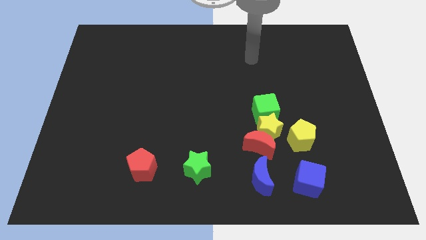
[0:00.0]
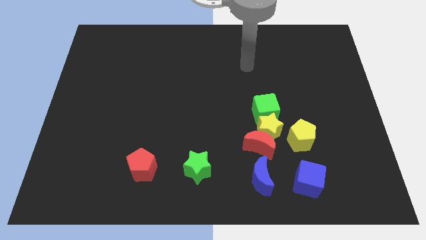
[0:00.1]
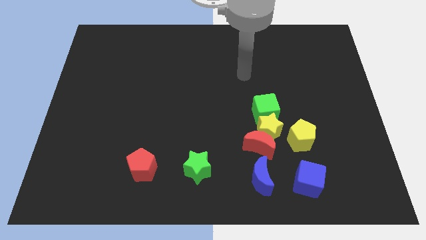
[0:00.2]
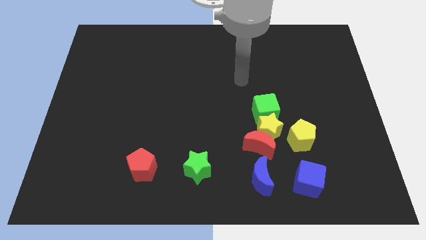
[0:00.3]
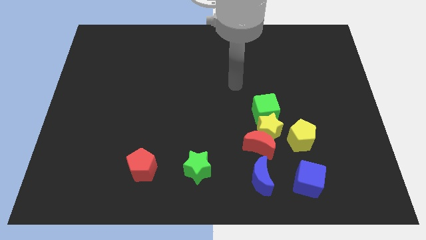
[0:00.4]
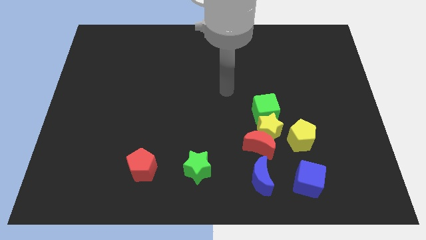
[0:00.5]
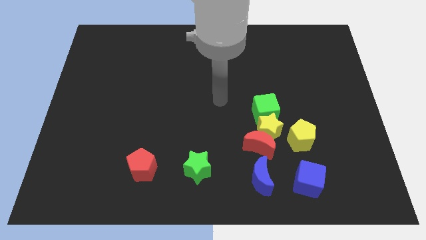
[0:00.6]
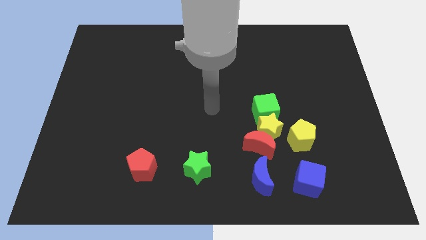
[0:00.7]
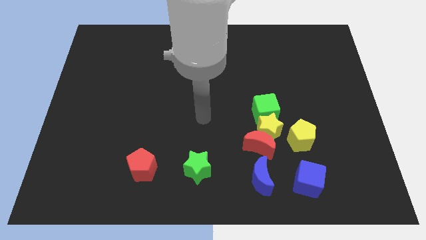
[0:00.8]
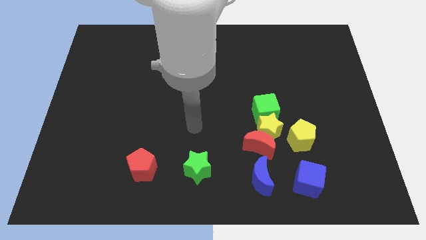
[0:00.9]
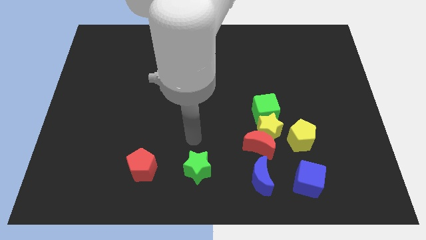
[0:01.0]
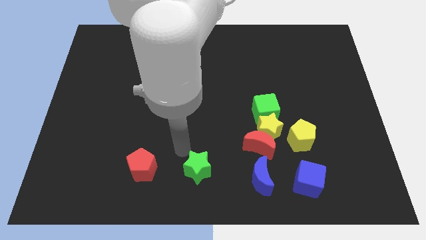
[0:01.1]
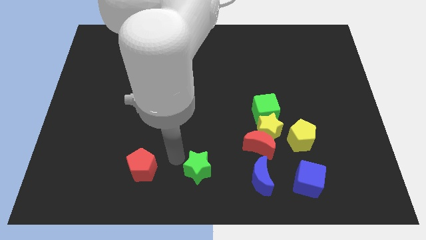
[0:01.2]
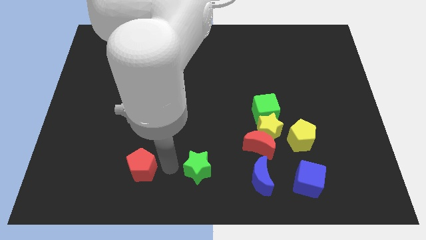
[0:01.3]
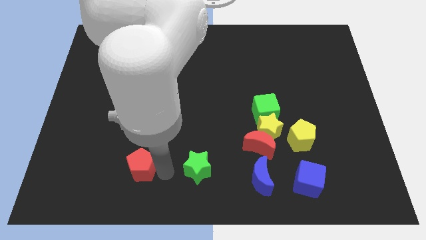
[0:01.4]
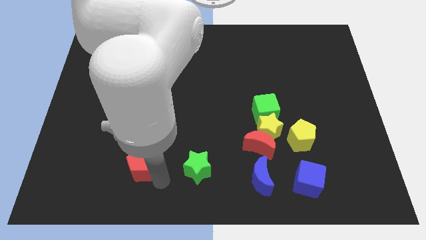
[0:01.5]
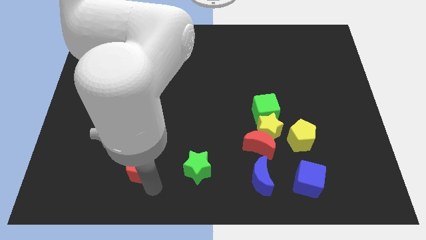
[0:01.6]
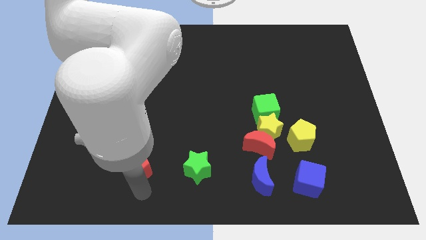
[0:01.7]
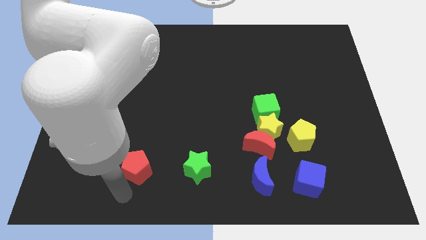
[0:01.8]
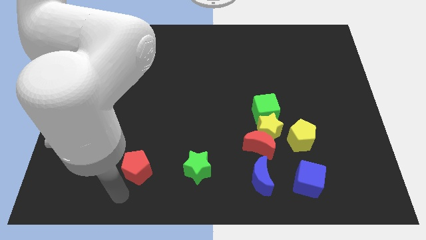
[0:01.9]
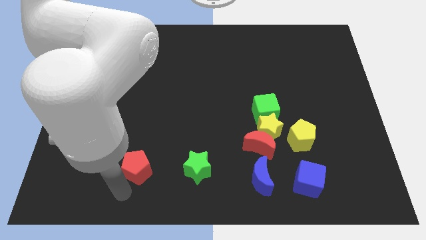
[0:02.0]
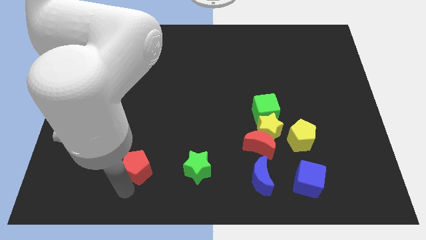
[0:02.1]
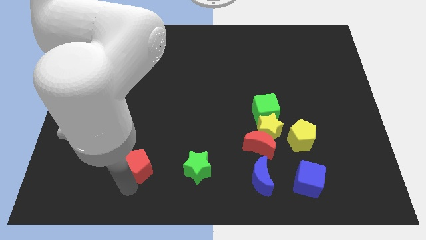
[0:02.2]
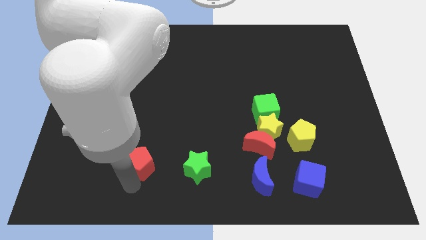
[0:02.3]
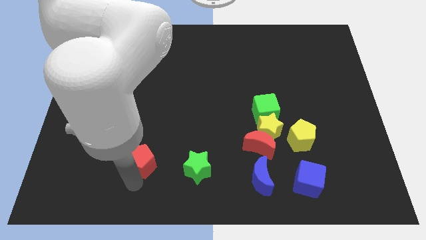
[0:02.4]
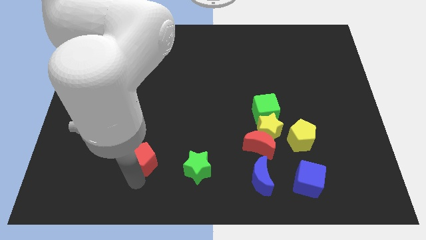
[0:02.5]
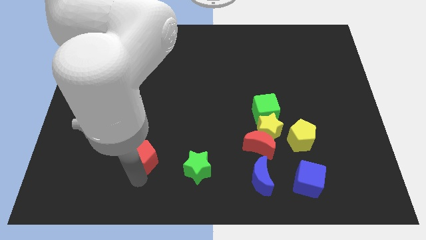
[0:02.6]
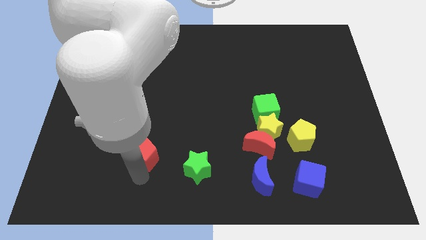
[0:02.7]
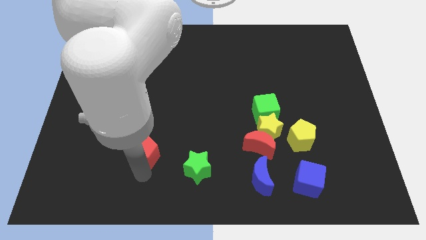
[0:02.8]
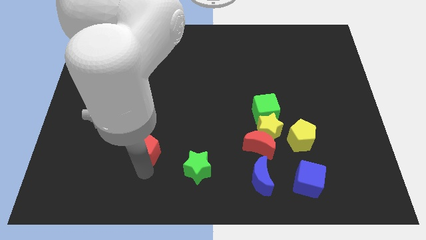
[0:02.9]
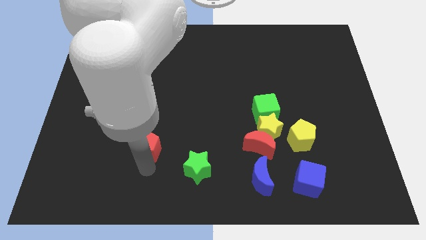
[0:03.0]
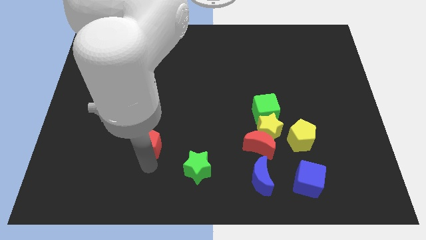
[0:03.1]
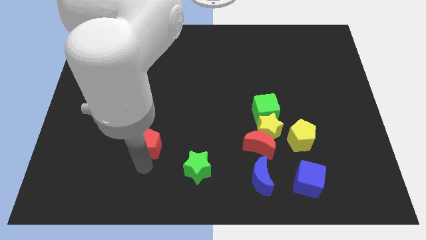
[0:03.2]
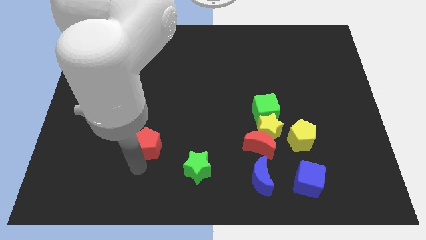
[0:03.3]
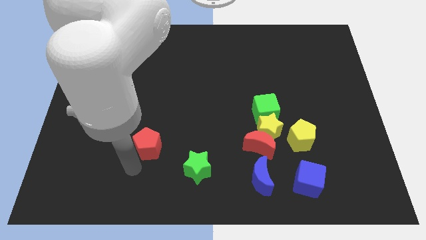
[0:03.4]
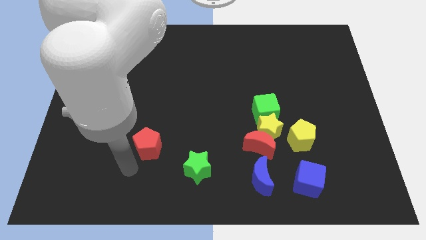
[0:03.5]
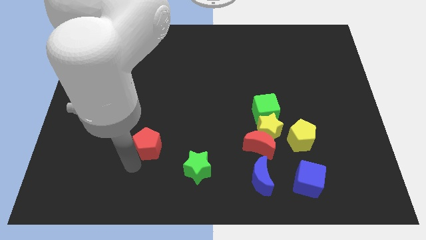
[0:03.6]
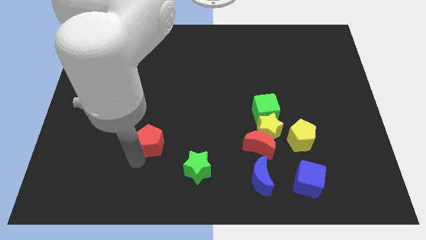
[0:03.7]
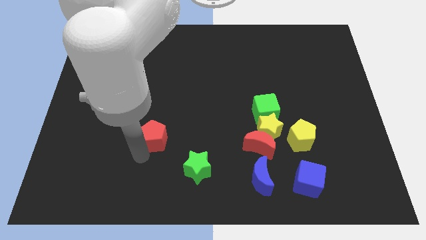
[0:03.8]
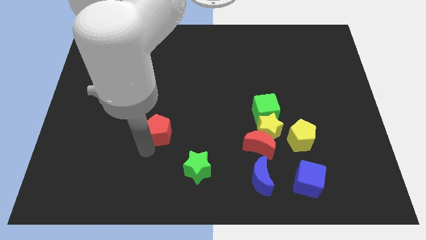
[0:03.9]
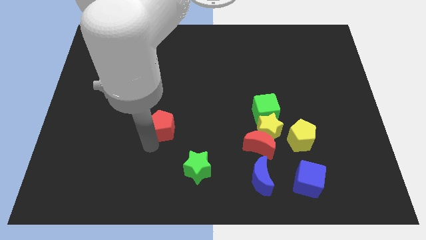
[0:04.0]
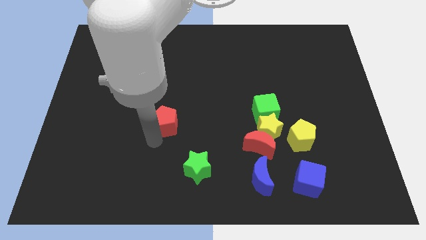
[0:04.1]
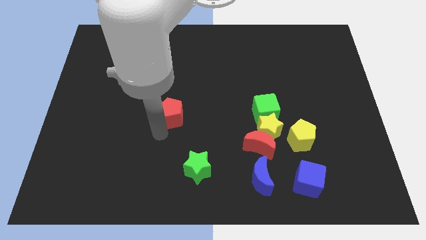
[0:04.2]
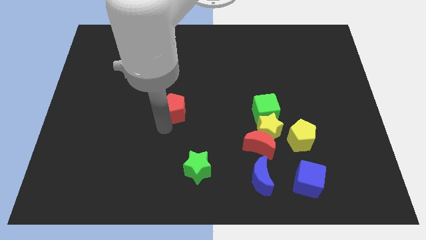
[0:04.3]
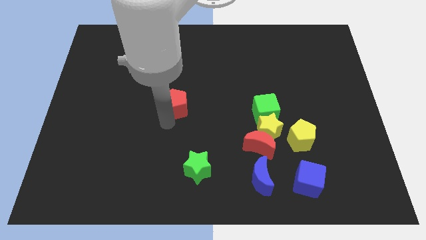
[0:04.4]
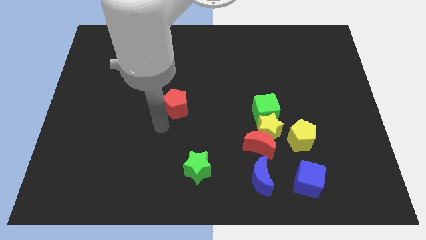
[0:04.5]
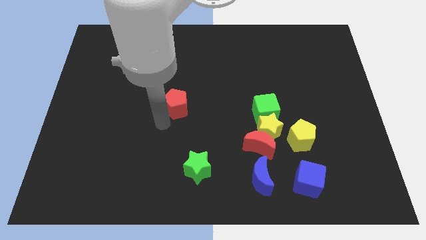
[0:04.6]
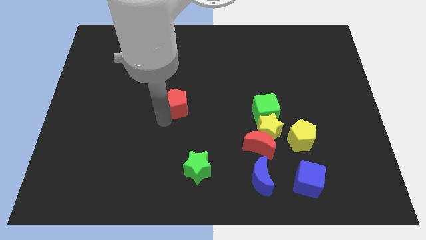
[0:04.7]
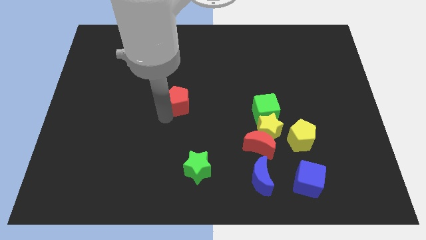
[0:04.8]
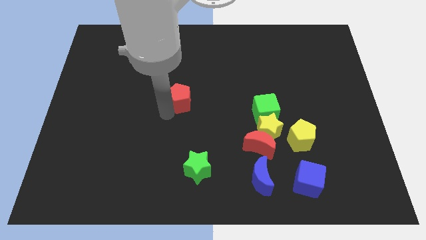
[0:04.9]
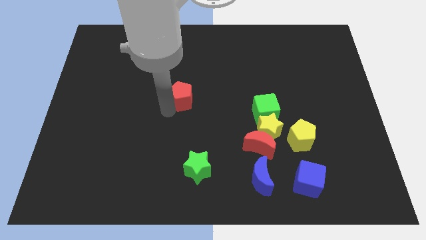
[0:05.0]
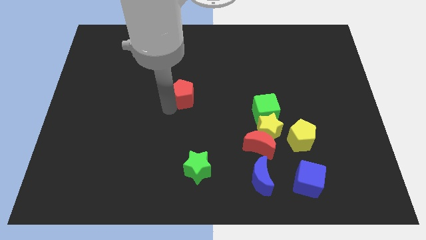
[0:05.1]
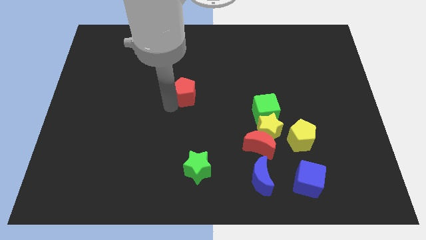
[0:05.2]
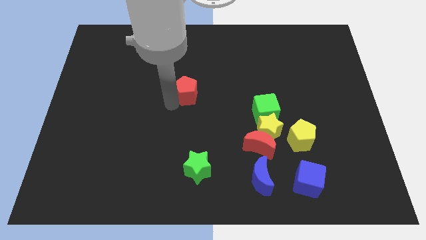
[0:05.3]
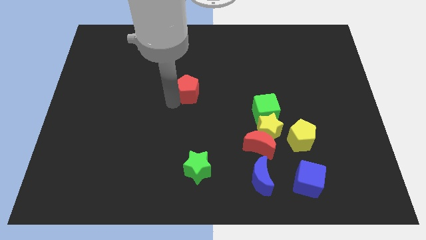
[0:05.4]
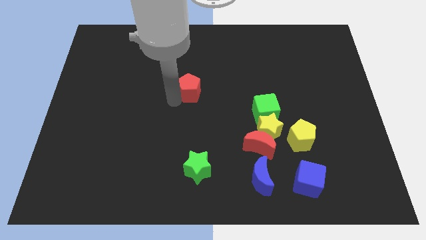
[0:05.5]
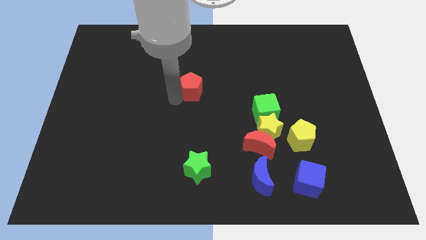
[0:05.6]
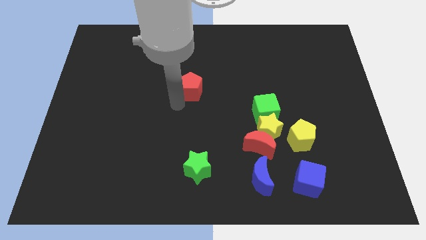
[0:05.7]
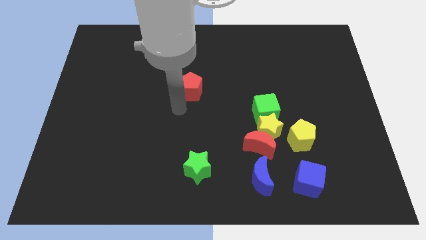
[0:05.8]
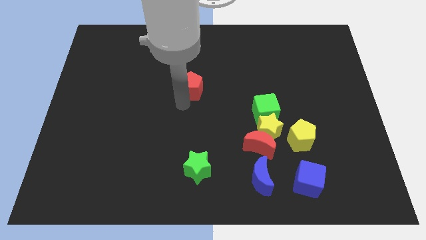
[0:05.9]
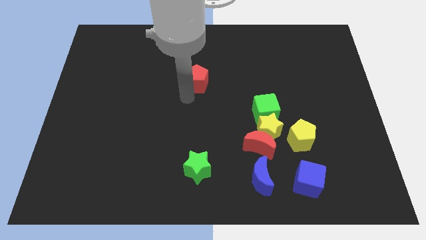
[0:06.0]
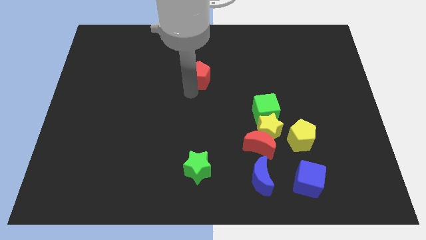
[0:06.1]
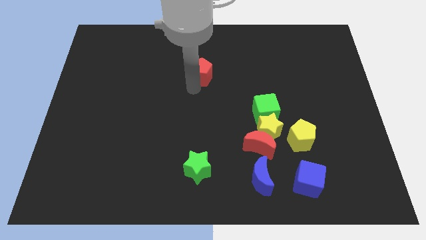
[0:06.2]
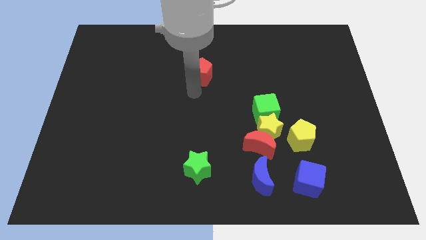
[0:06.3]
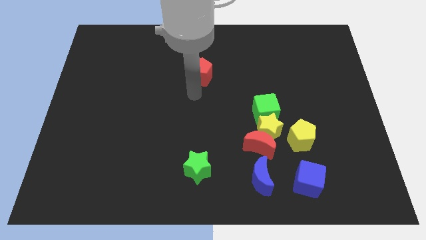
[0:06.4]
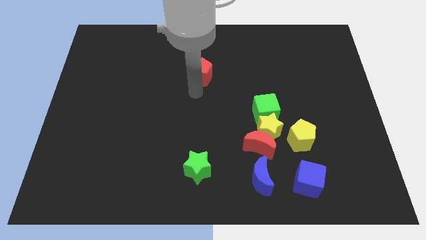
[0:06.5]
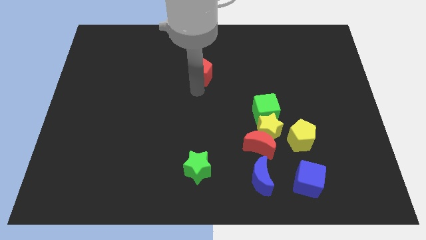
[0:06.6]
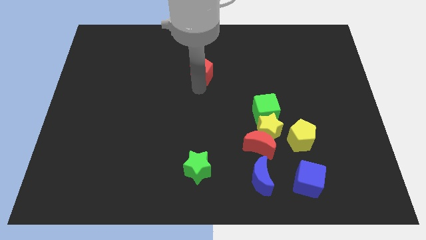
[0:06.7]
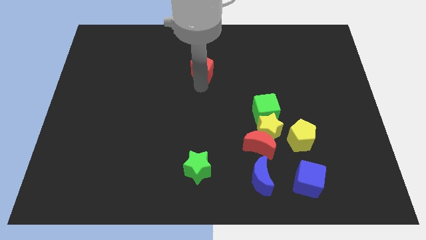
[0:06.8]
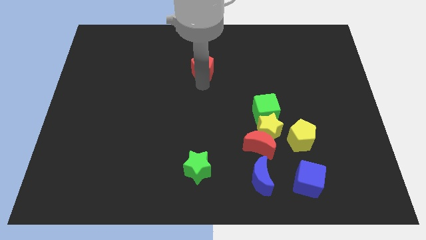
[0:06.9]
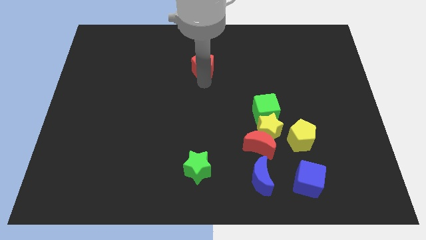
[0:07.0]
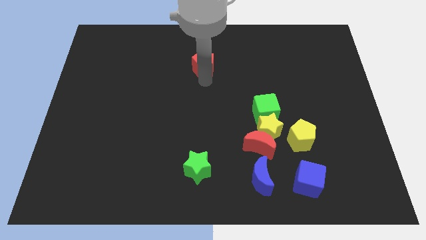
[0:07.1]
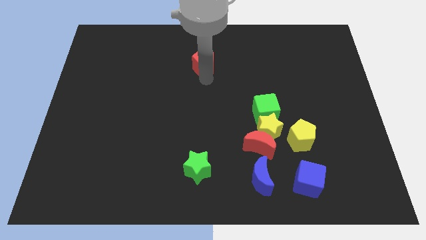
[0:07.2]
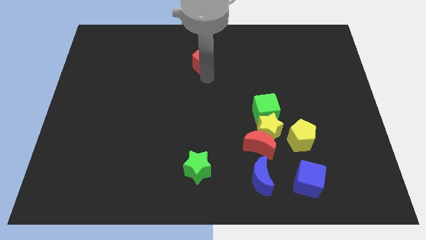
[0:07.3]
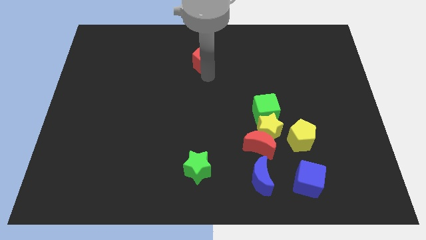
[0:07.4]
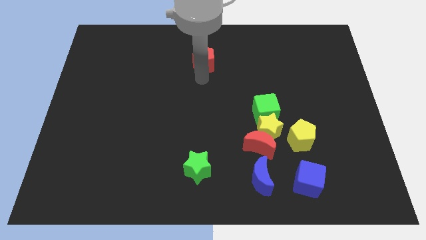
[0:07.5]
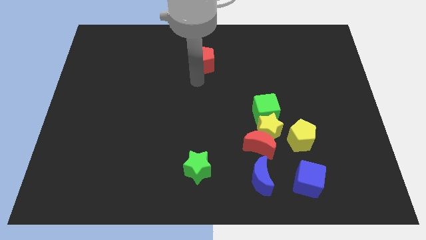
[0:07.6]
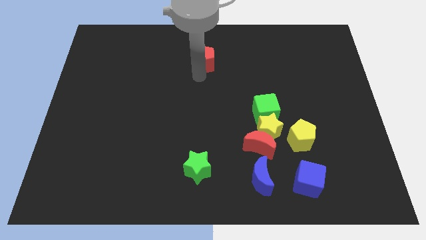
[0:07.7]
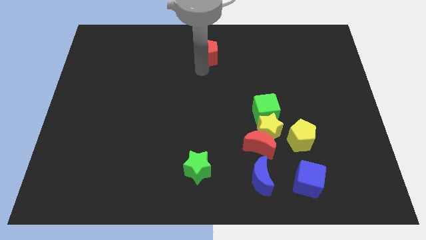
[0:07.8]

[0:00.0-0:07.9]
push the red pentagon to the top
